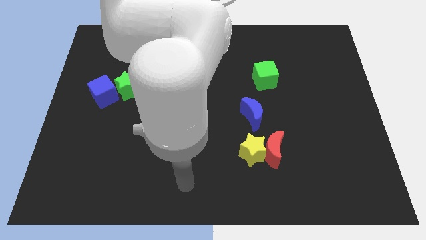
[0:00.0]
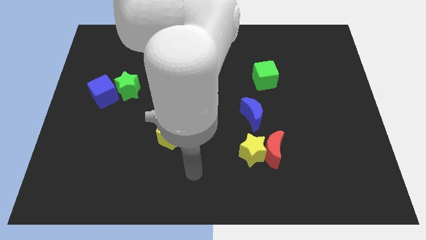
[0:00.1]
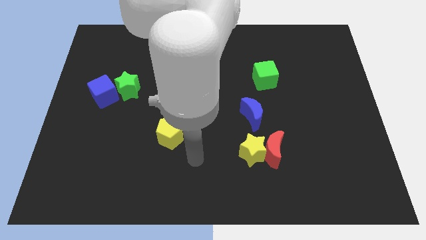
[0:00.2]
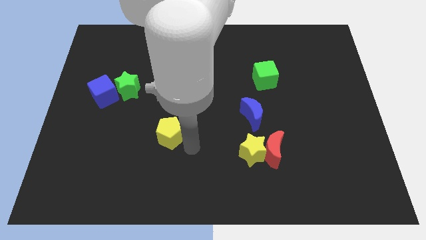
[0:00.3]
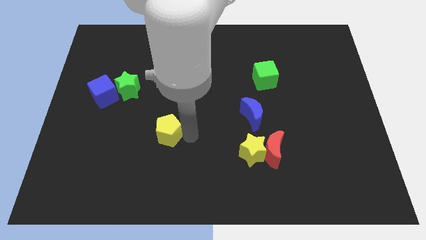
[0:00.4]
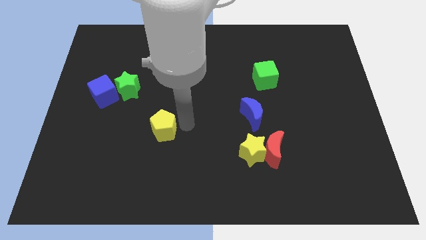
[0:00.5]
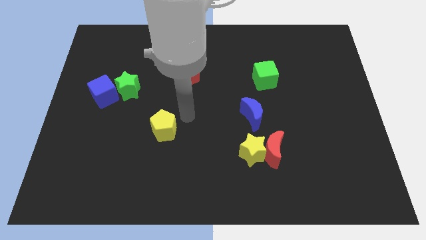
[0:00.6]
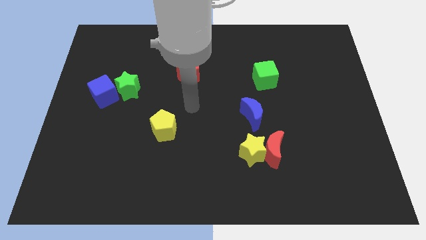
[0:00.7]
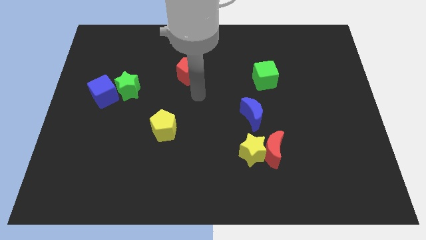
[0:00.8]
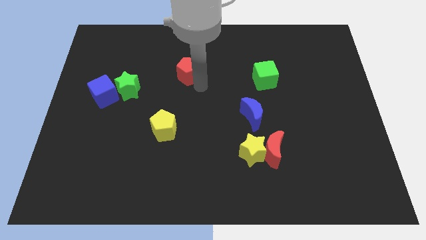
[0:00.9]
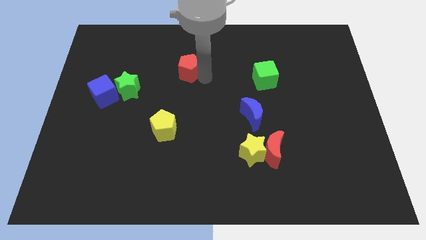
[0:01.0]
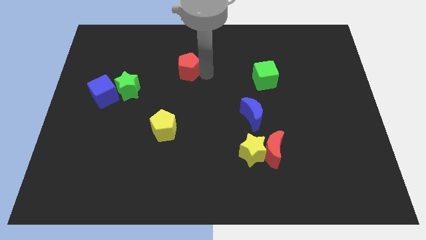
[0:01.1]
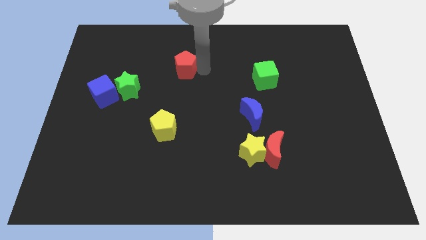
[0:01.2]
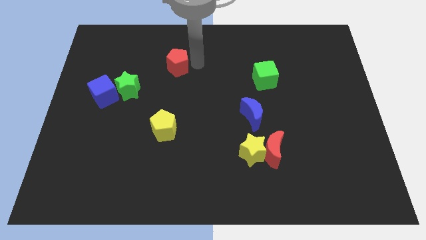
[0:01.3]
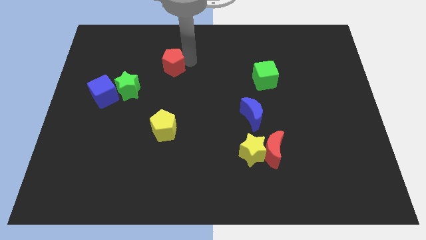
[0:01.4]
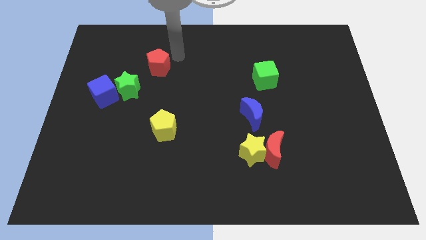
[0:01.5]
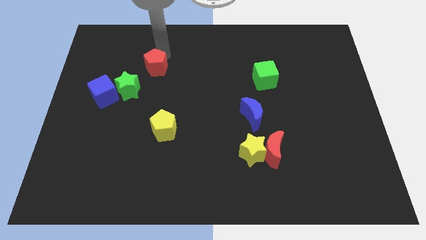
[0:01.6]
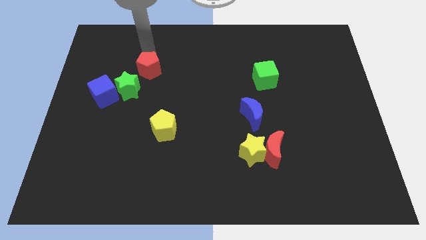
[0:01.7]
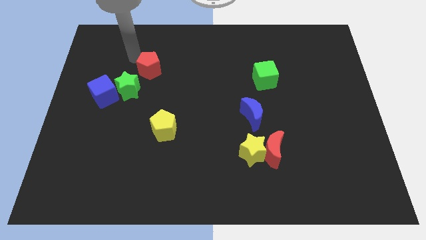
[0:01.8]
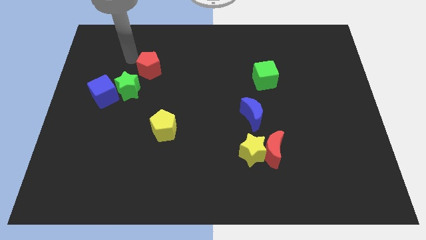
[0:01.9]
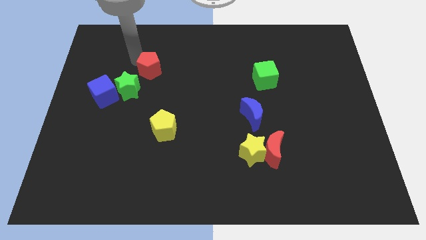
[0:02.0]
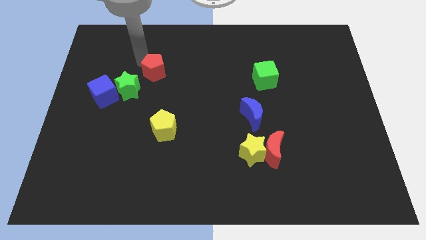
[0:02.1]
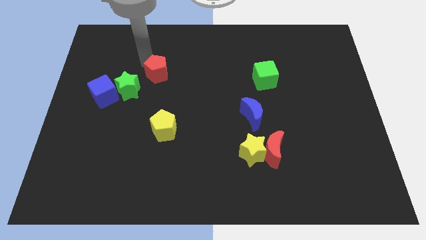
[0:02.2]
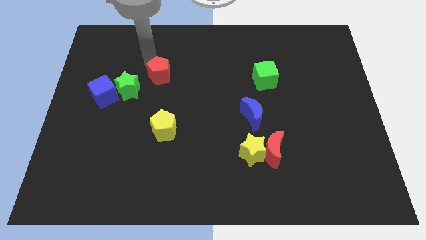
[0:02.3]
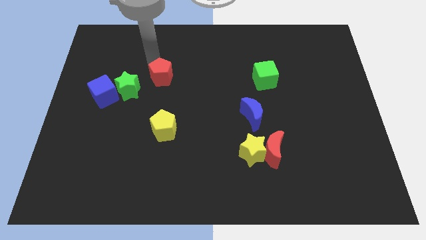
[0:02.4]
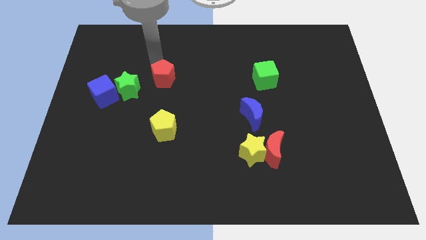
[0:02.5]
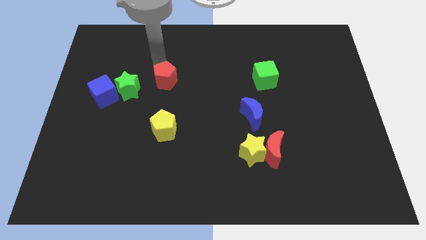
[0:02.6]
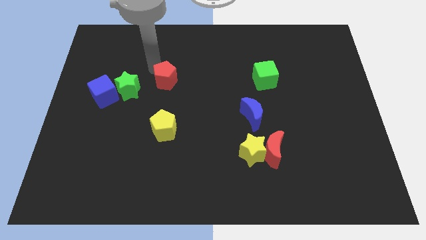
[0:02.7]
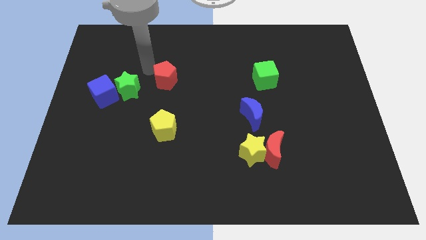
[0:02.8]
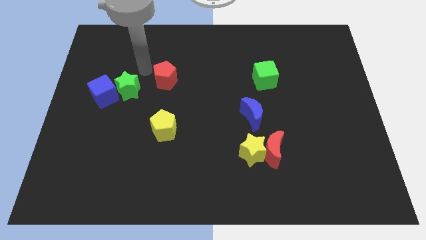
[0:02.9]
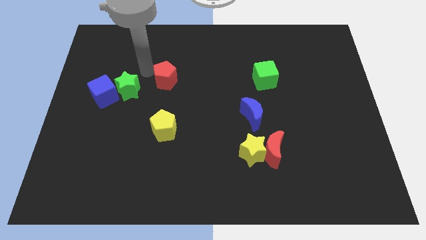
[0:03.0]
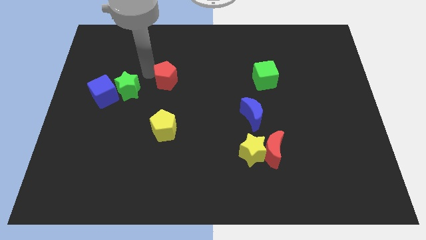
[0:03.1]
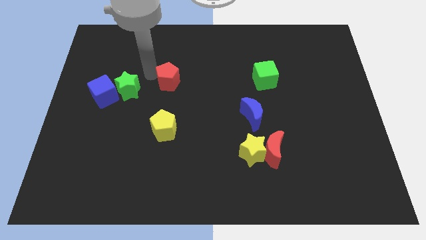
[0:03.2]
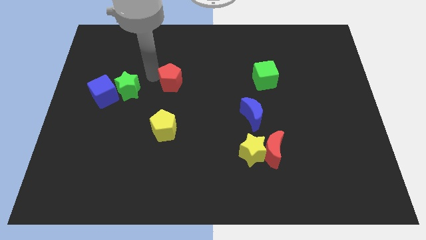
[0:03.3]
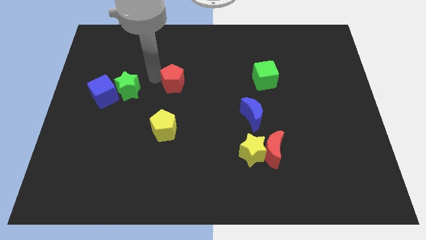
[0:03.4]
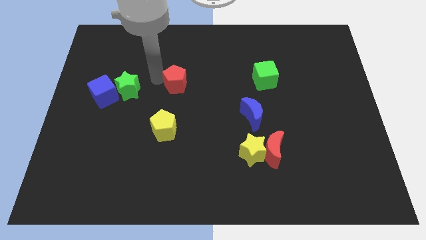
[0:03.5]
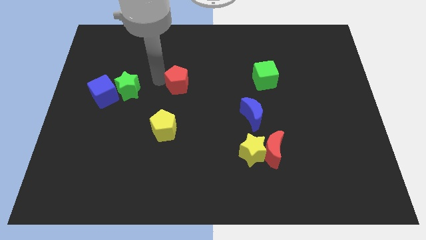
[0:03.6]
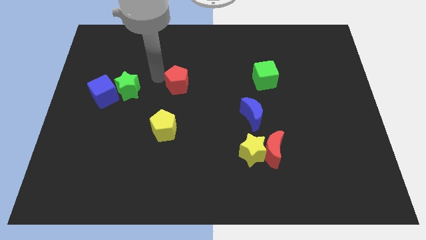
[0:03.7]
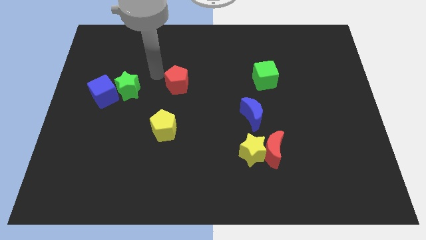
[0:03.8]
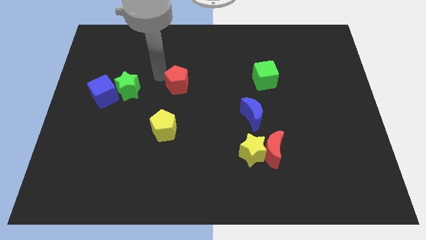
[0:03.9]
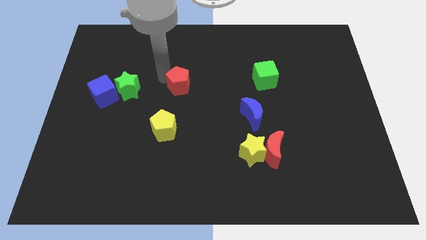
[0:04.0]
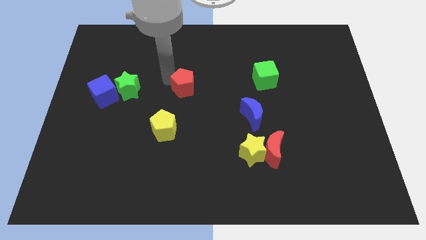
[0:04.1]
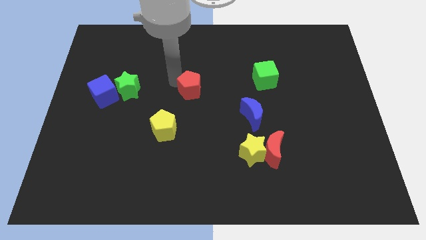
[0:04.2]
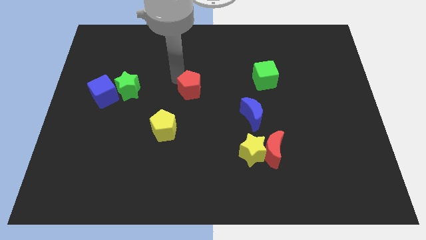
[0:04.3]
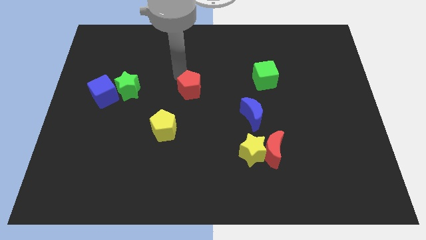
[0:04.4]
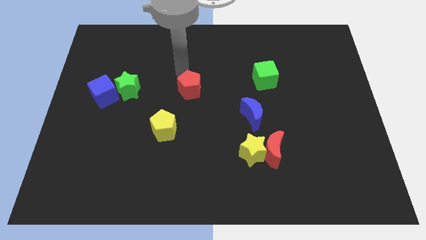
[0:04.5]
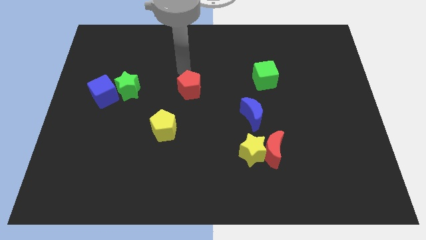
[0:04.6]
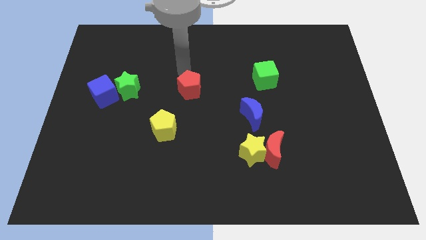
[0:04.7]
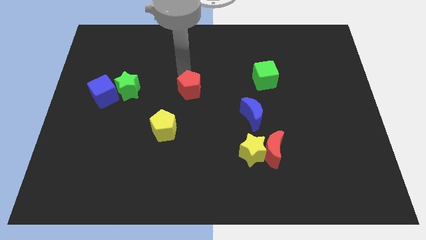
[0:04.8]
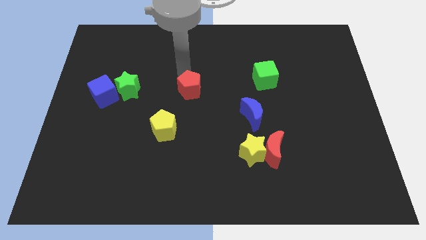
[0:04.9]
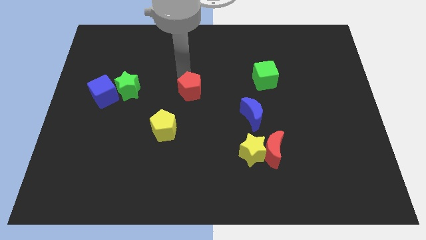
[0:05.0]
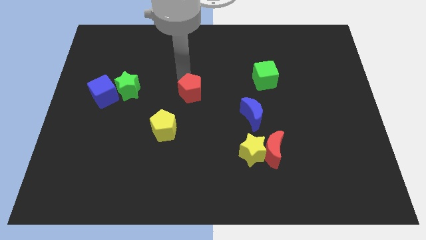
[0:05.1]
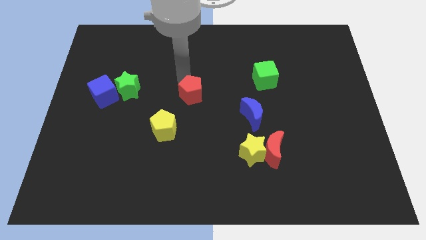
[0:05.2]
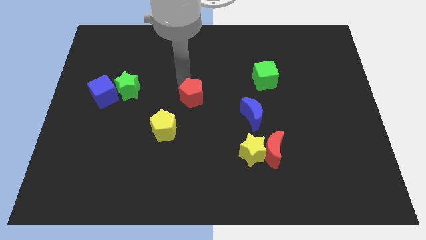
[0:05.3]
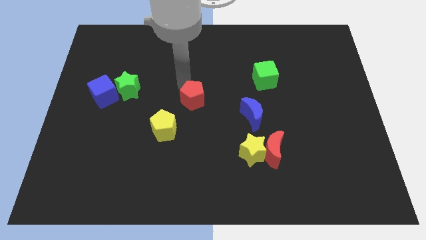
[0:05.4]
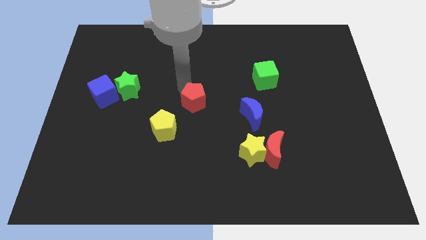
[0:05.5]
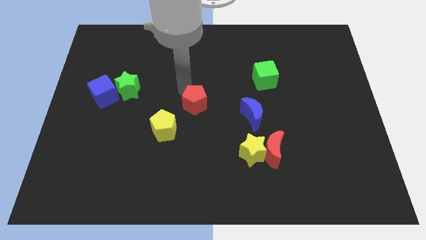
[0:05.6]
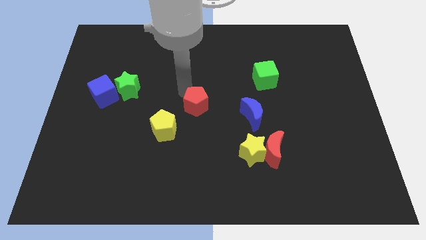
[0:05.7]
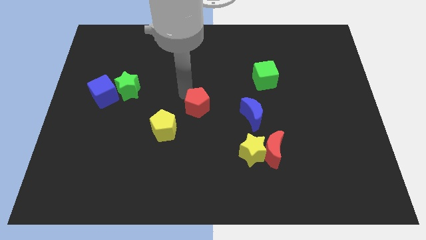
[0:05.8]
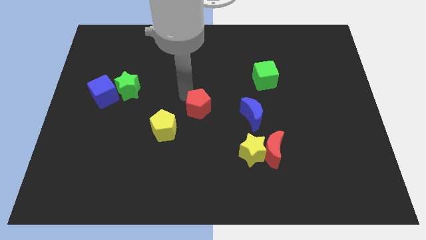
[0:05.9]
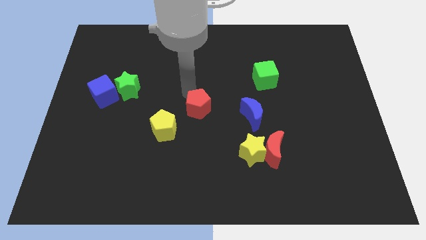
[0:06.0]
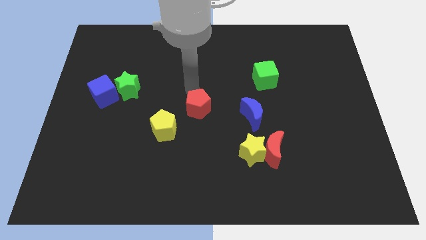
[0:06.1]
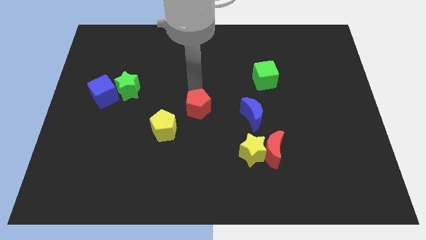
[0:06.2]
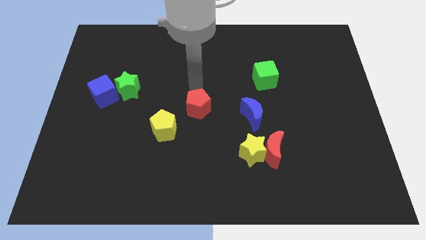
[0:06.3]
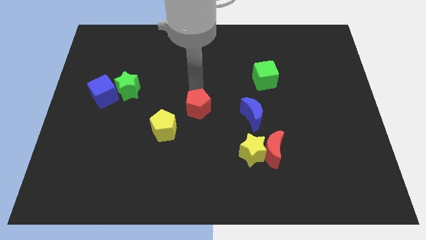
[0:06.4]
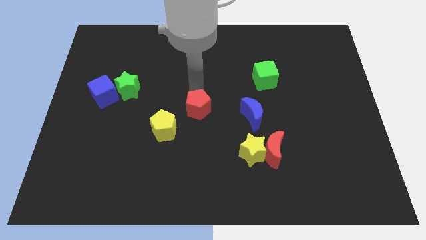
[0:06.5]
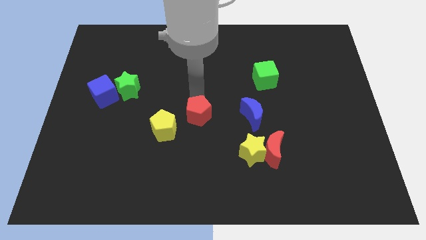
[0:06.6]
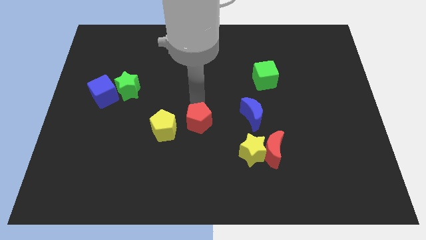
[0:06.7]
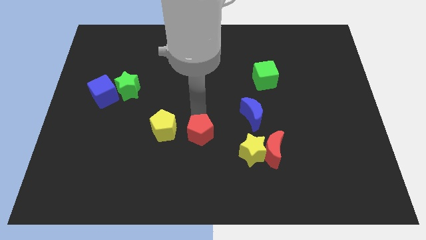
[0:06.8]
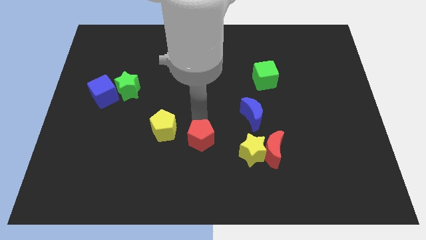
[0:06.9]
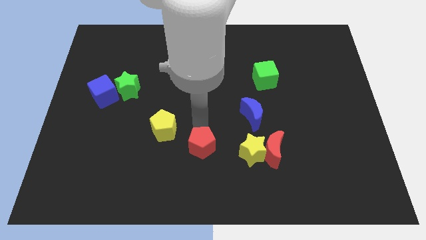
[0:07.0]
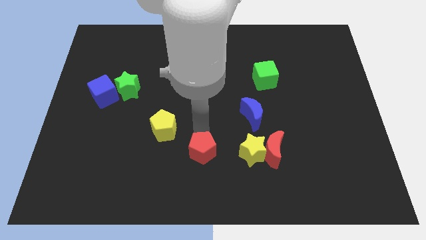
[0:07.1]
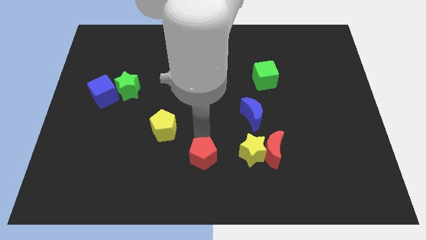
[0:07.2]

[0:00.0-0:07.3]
move the red pentagon to the bottom
